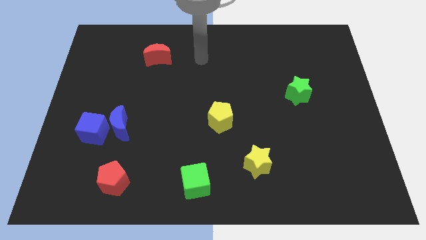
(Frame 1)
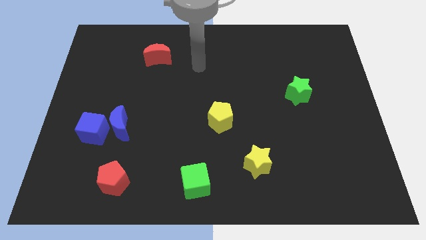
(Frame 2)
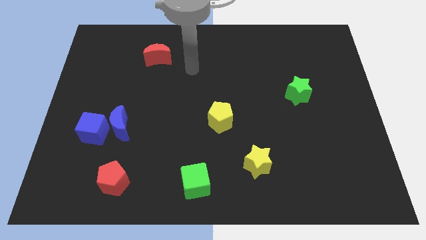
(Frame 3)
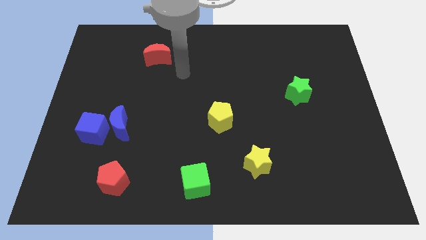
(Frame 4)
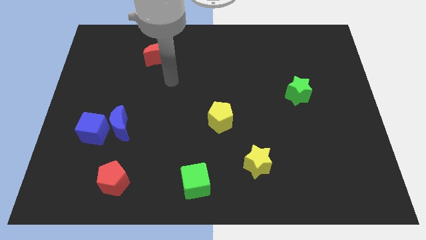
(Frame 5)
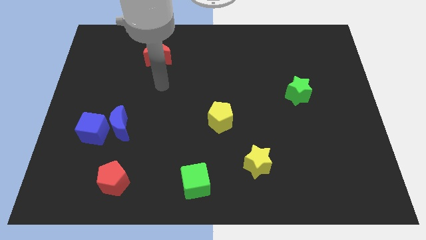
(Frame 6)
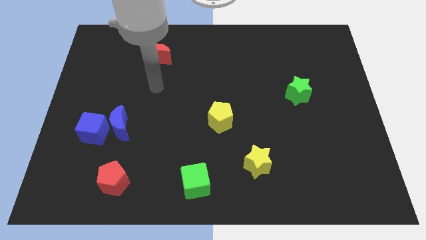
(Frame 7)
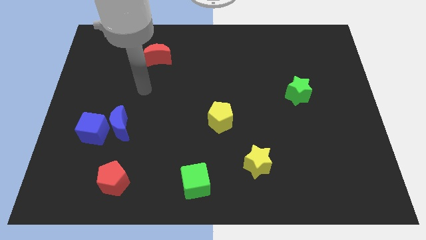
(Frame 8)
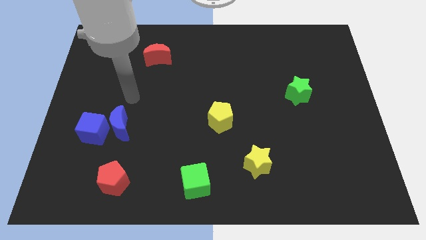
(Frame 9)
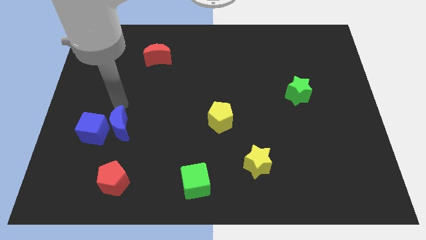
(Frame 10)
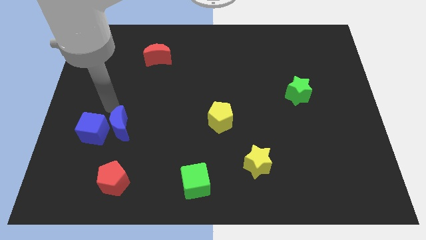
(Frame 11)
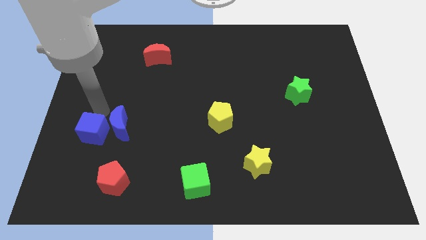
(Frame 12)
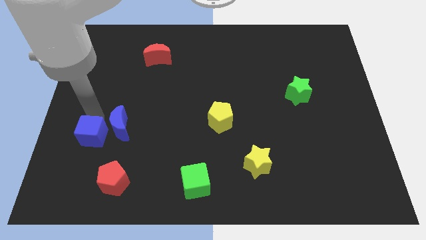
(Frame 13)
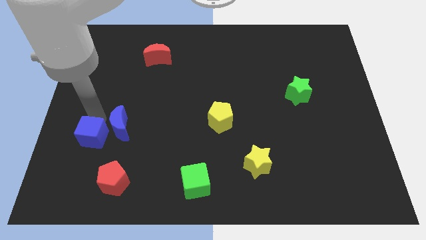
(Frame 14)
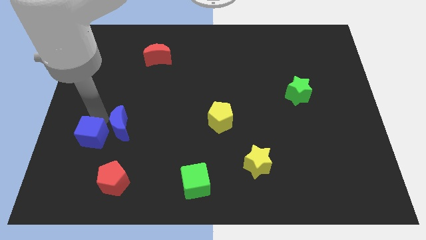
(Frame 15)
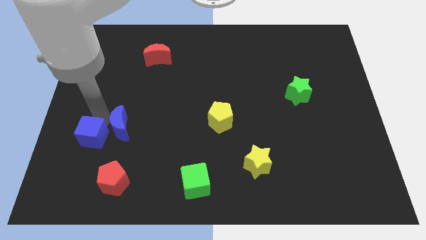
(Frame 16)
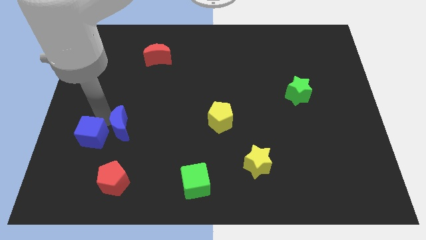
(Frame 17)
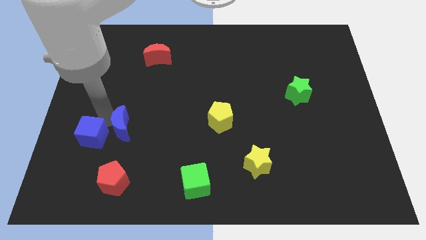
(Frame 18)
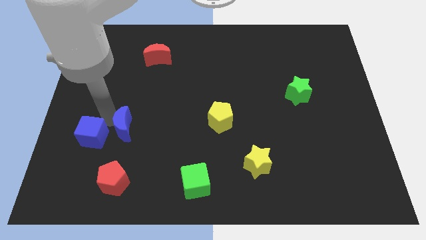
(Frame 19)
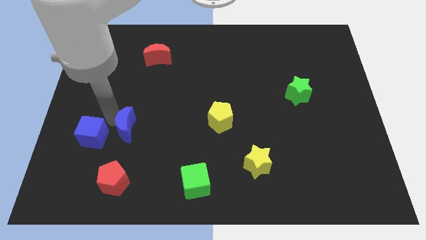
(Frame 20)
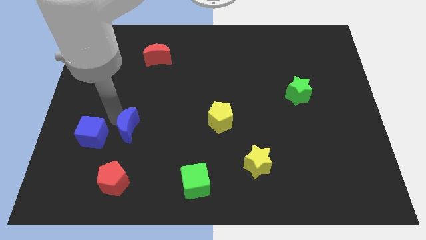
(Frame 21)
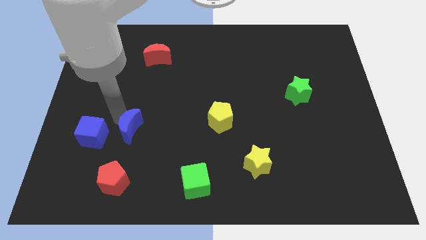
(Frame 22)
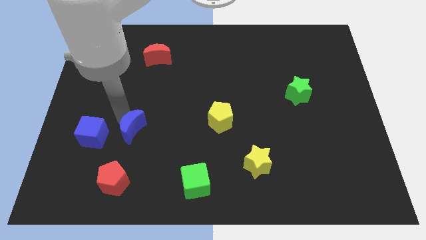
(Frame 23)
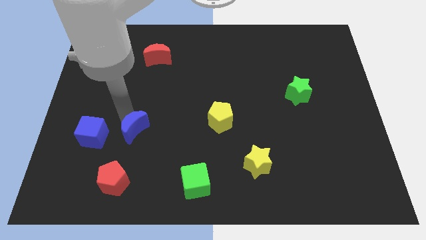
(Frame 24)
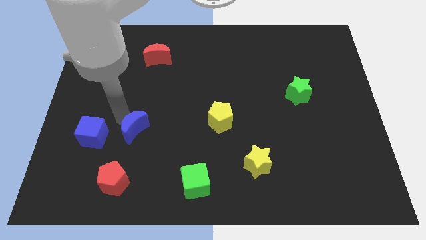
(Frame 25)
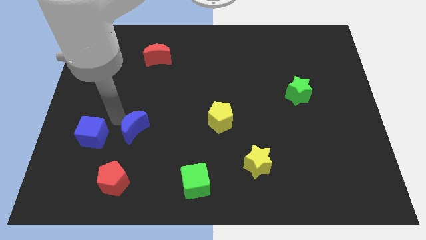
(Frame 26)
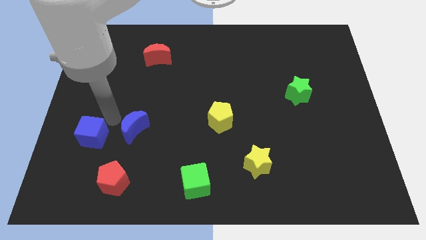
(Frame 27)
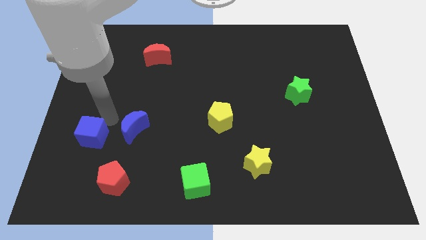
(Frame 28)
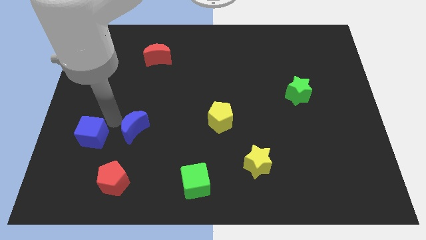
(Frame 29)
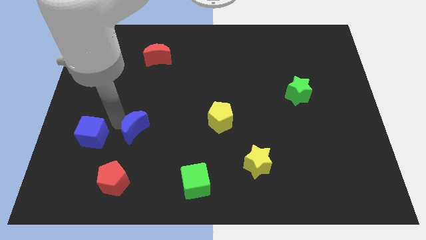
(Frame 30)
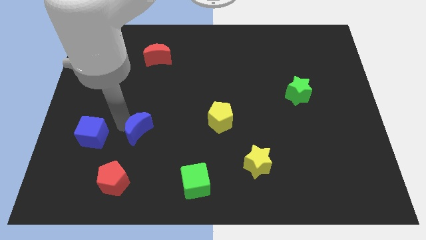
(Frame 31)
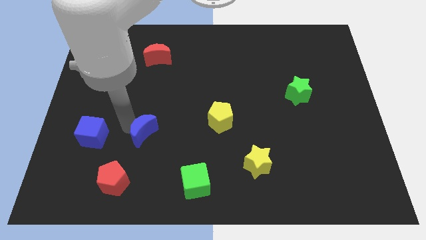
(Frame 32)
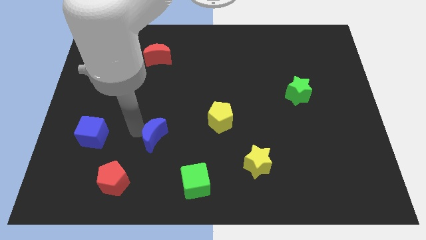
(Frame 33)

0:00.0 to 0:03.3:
slide the blue moon right a little bit

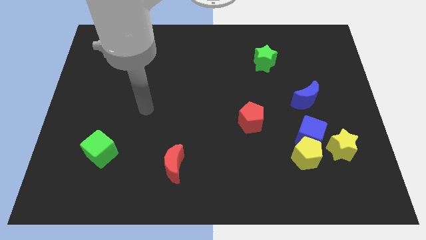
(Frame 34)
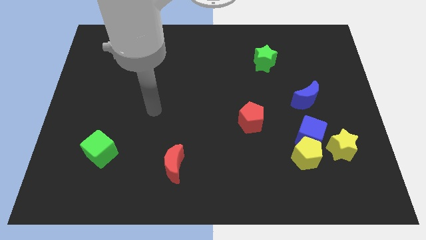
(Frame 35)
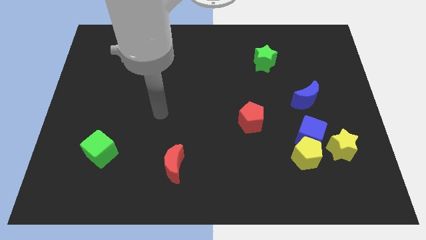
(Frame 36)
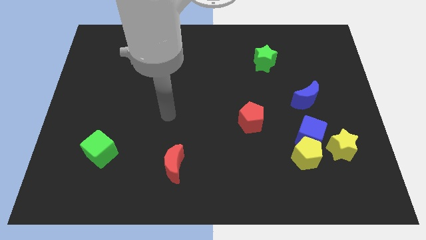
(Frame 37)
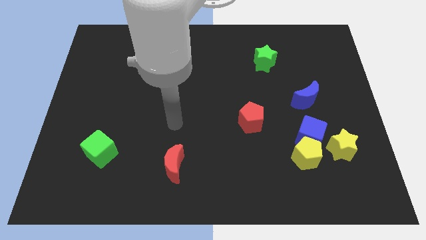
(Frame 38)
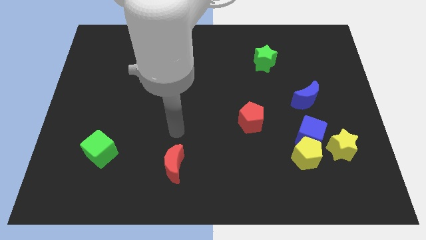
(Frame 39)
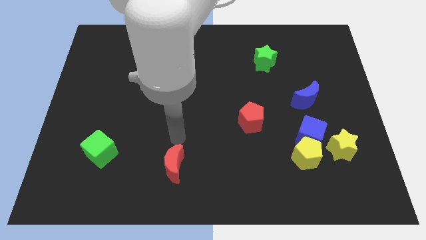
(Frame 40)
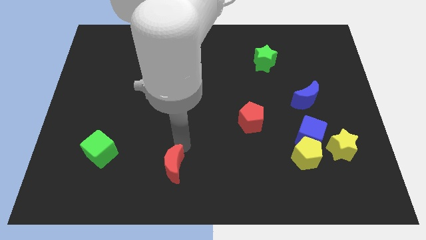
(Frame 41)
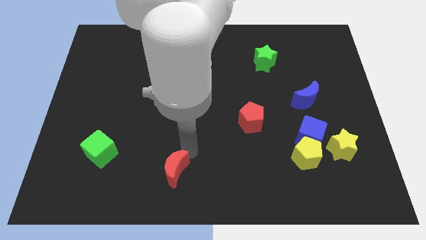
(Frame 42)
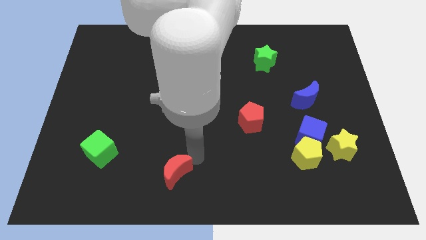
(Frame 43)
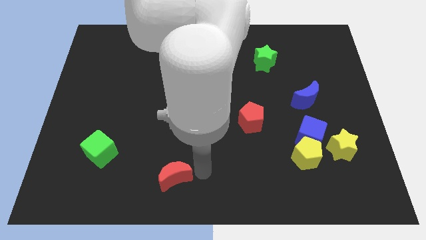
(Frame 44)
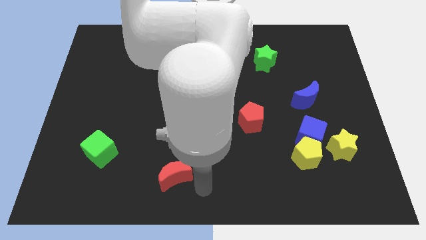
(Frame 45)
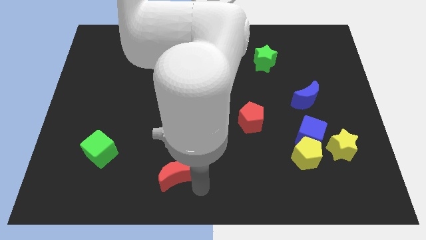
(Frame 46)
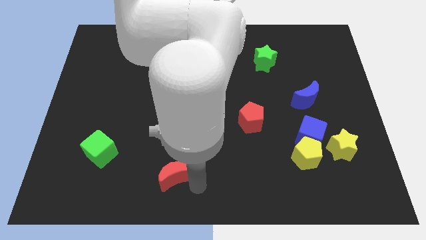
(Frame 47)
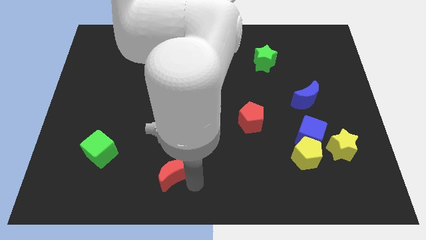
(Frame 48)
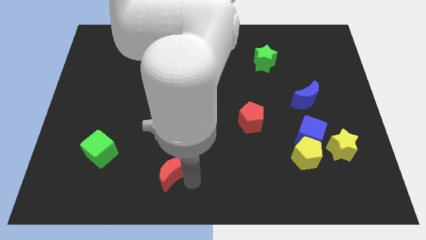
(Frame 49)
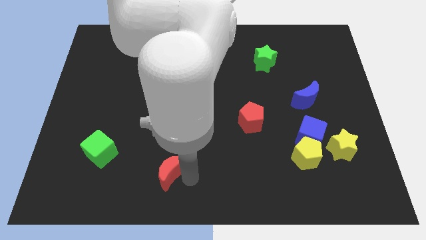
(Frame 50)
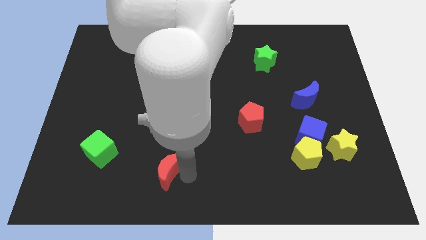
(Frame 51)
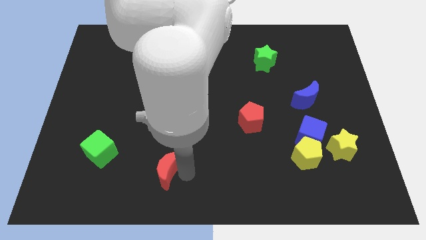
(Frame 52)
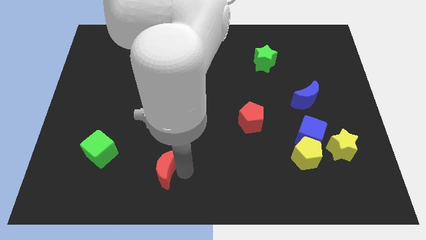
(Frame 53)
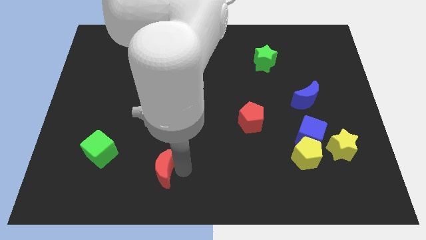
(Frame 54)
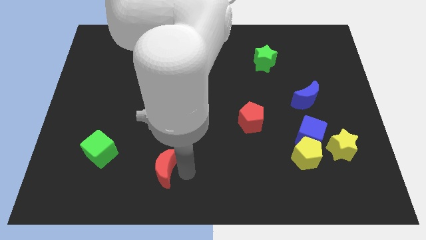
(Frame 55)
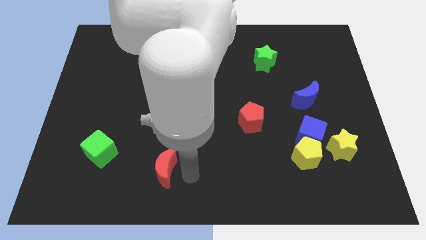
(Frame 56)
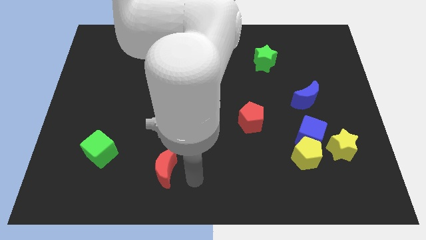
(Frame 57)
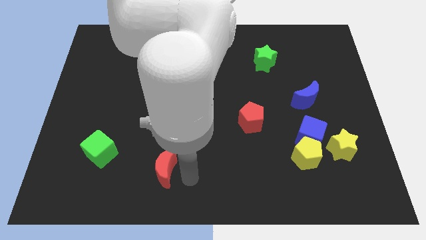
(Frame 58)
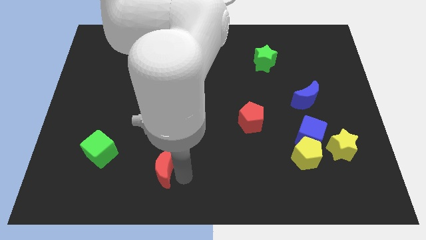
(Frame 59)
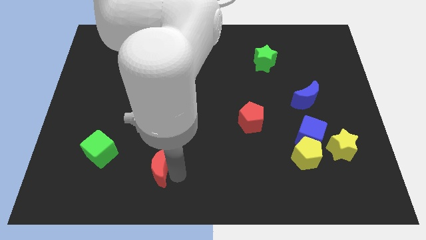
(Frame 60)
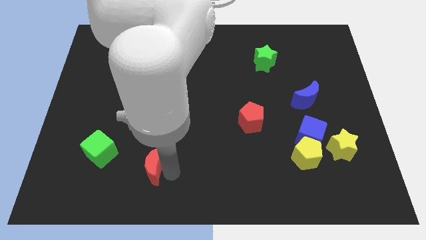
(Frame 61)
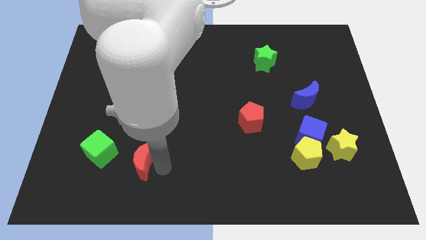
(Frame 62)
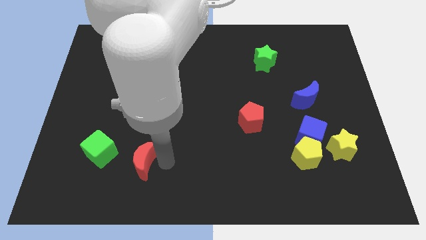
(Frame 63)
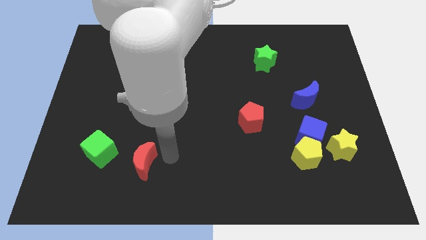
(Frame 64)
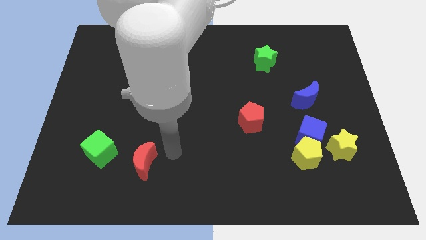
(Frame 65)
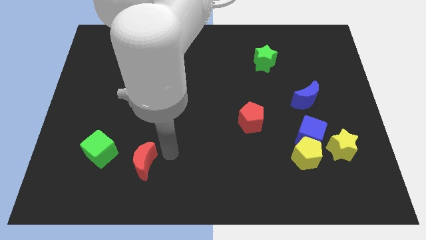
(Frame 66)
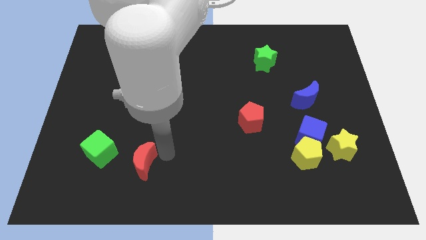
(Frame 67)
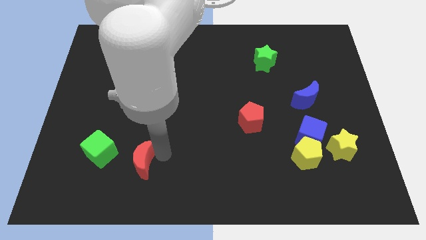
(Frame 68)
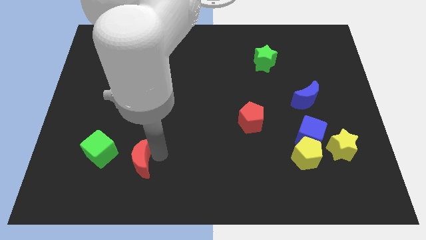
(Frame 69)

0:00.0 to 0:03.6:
slightly move the red moon left

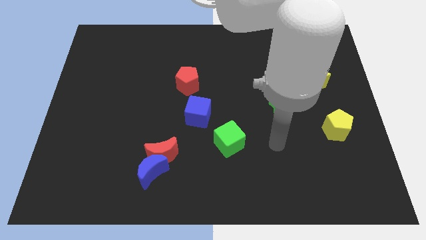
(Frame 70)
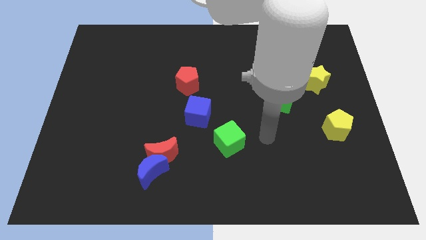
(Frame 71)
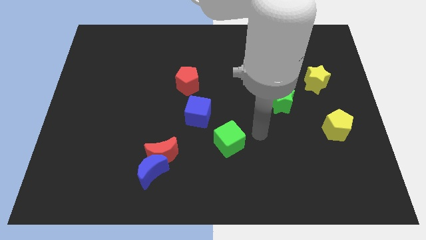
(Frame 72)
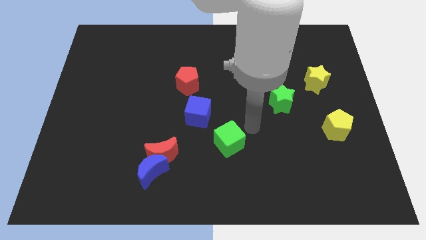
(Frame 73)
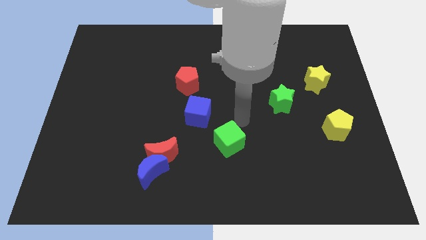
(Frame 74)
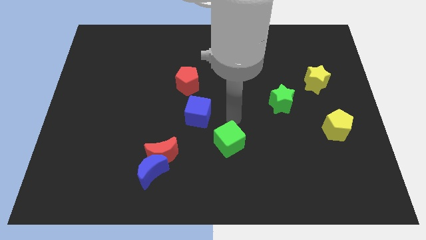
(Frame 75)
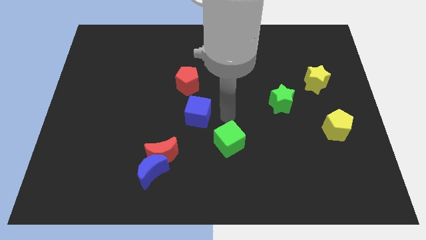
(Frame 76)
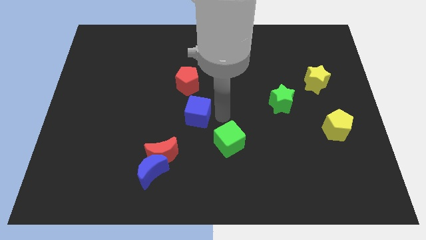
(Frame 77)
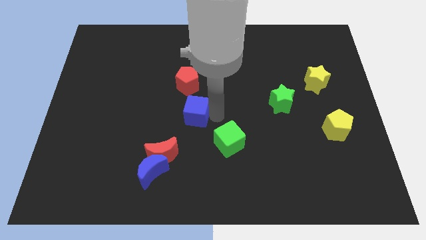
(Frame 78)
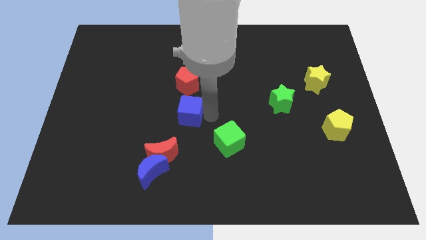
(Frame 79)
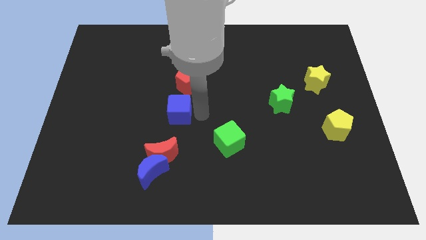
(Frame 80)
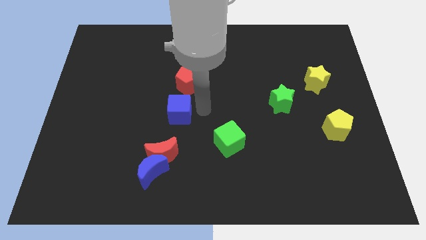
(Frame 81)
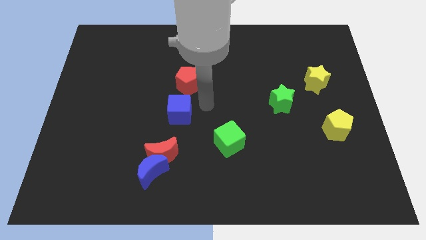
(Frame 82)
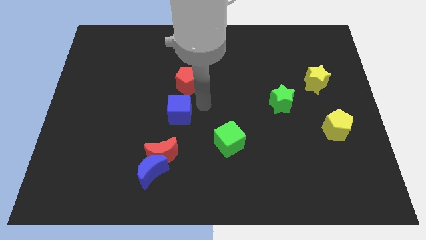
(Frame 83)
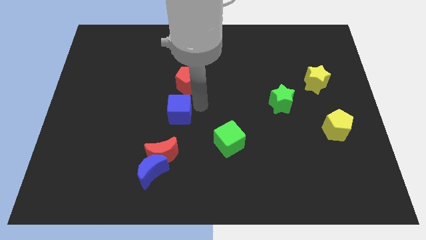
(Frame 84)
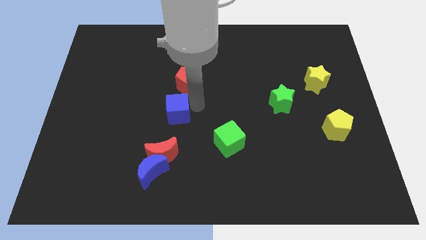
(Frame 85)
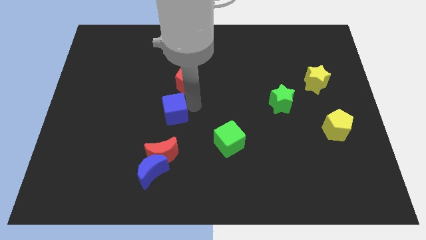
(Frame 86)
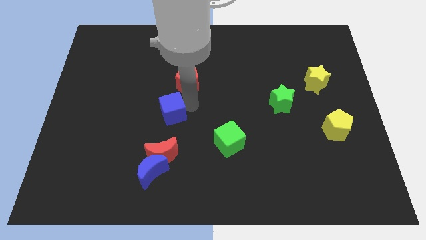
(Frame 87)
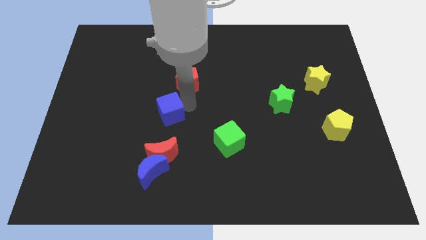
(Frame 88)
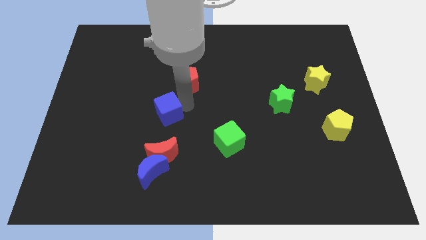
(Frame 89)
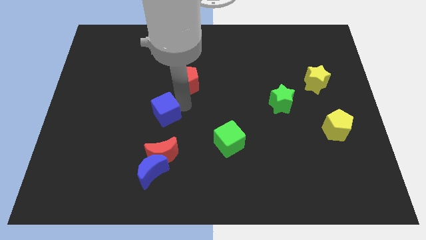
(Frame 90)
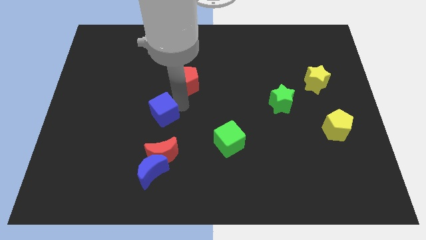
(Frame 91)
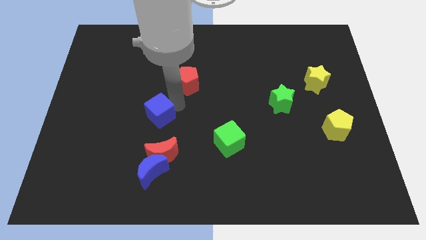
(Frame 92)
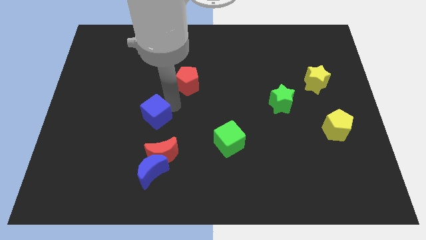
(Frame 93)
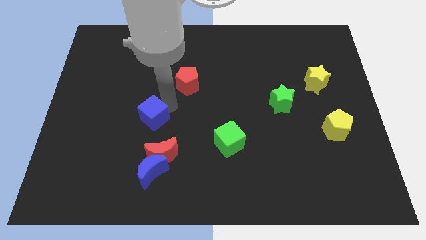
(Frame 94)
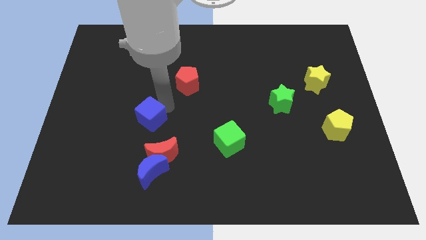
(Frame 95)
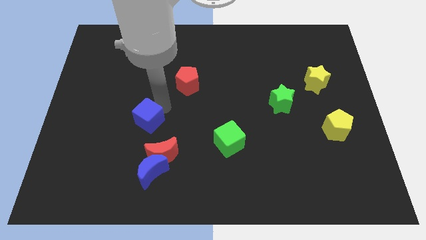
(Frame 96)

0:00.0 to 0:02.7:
slide the blue cube downwards and left diagonally somewhat
